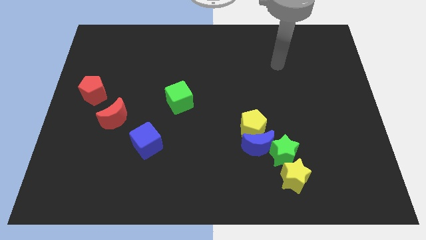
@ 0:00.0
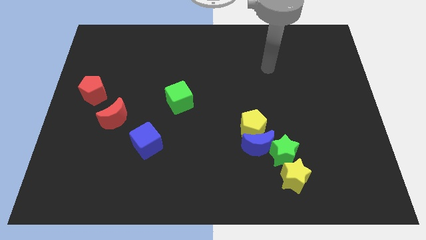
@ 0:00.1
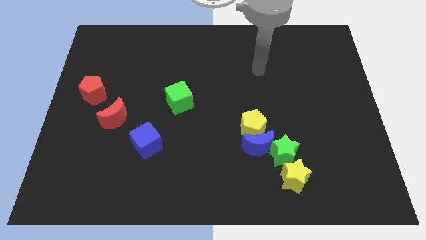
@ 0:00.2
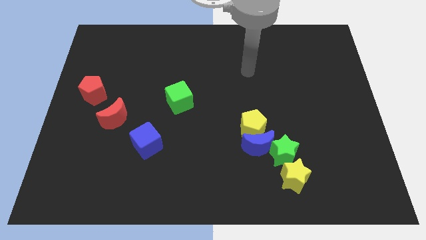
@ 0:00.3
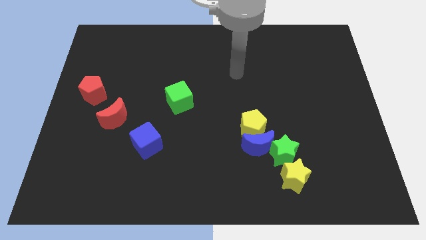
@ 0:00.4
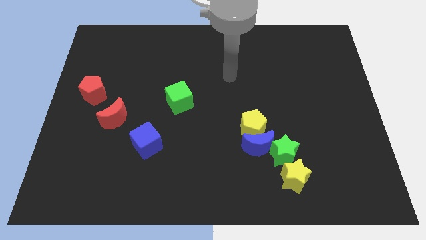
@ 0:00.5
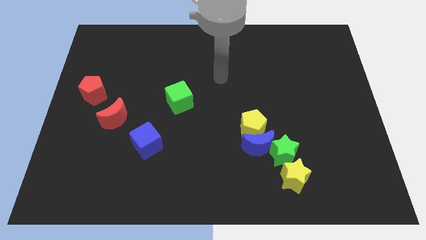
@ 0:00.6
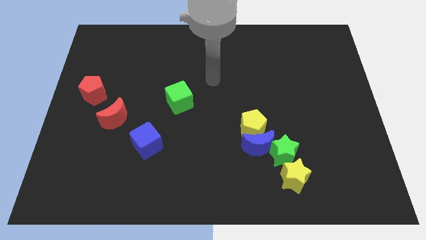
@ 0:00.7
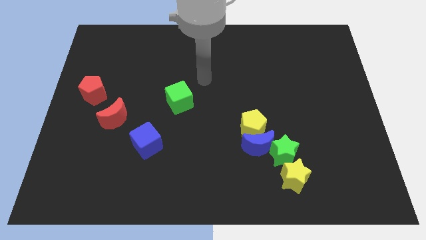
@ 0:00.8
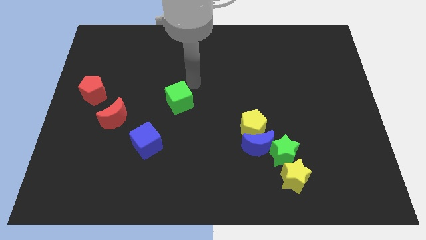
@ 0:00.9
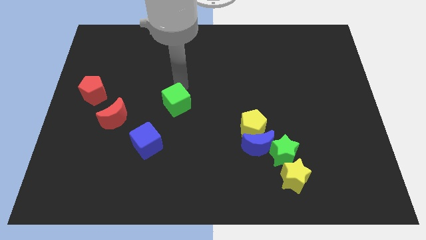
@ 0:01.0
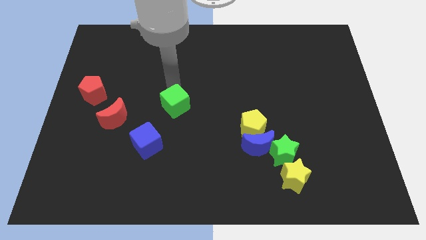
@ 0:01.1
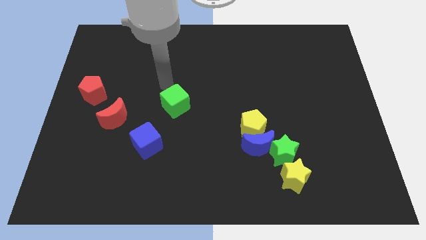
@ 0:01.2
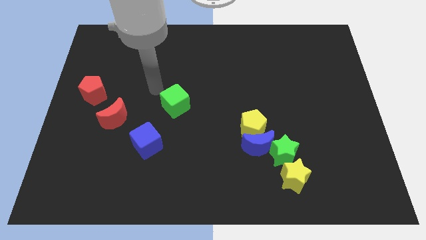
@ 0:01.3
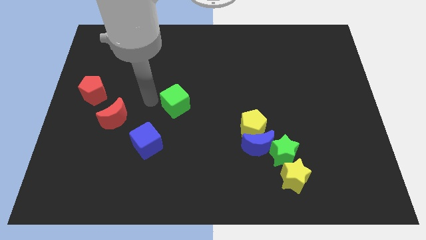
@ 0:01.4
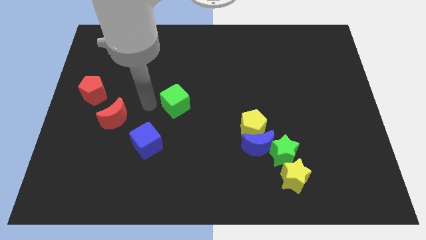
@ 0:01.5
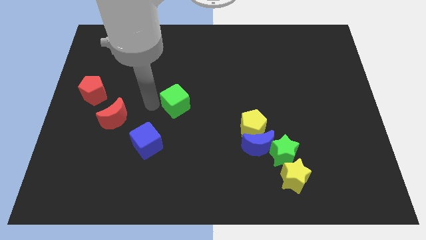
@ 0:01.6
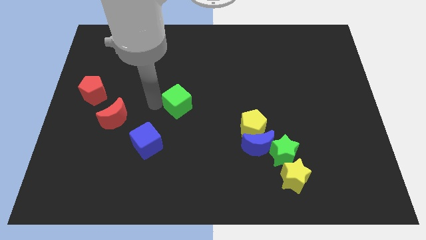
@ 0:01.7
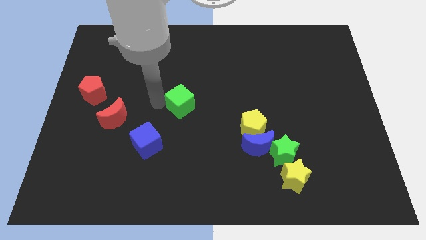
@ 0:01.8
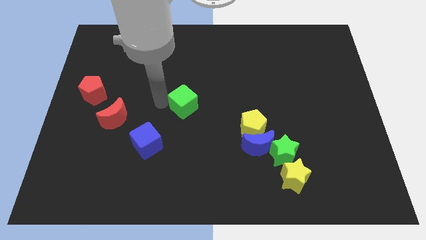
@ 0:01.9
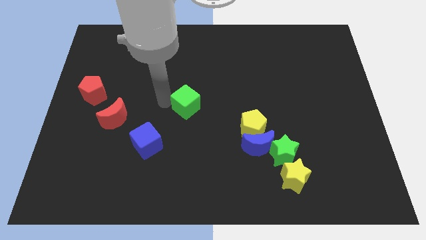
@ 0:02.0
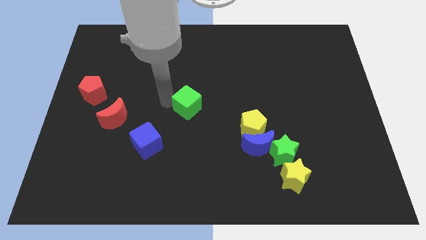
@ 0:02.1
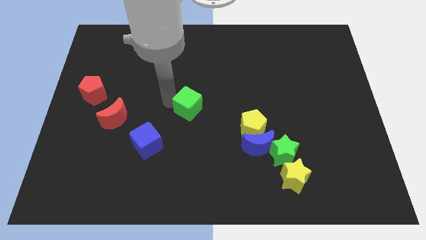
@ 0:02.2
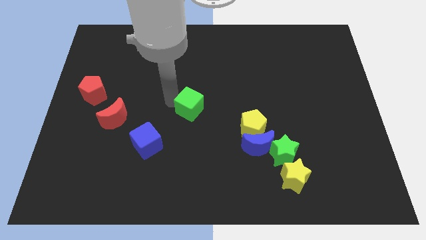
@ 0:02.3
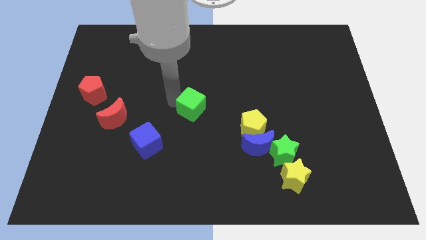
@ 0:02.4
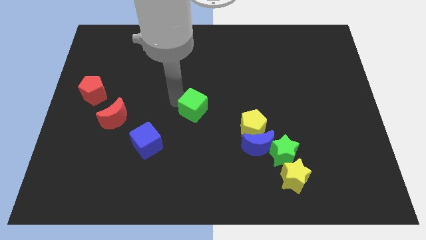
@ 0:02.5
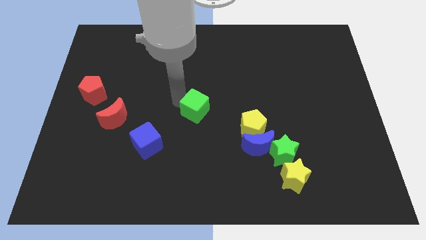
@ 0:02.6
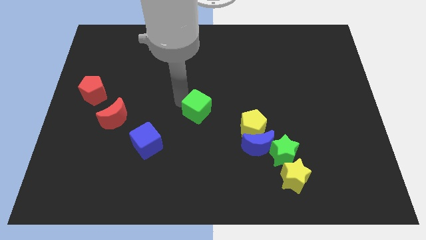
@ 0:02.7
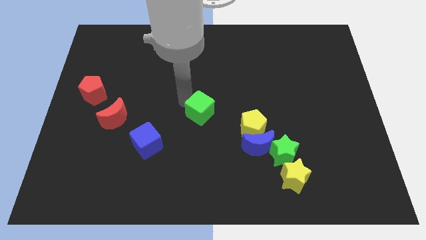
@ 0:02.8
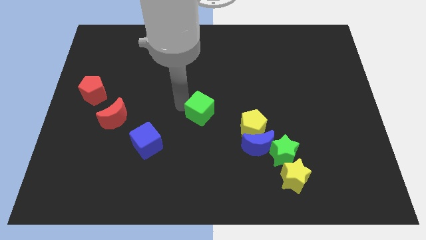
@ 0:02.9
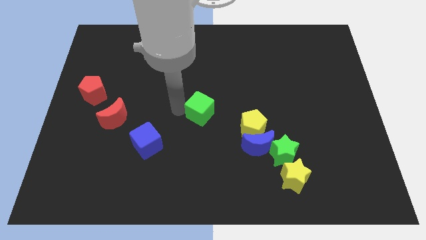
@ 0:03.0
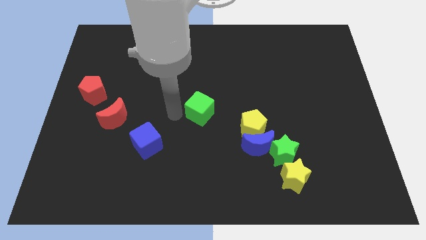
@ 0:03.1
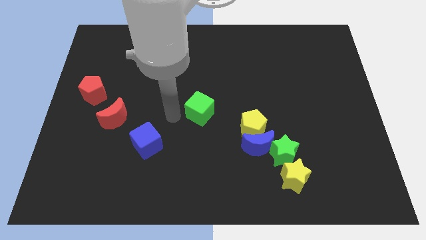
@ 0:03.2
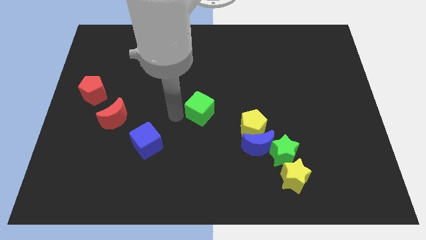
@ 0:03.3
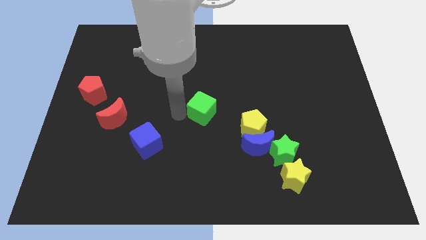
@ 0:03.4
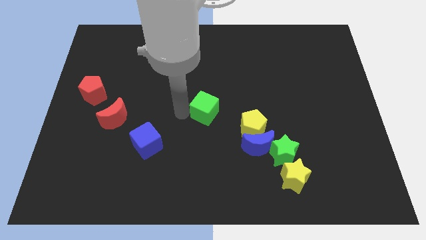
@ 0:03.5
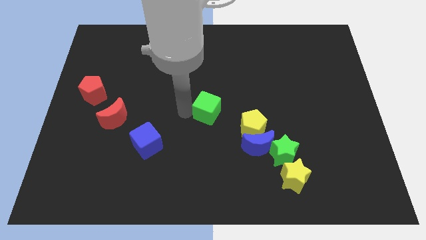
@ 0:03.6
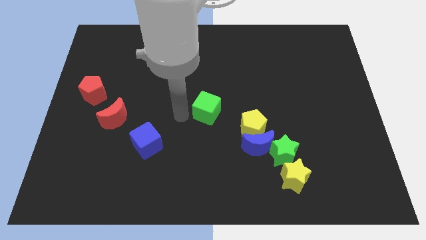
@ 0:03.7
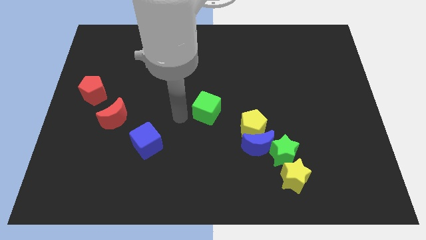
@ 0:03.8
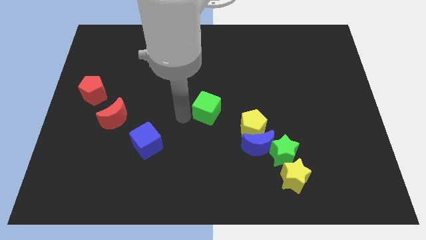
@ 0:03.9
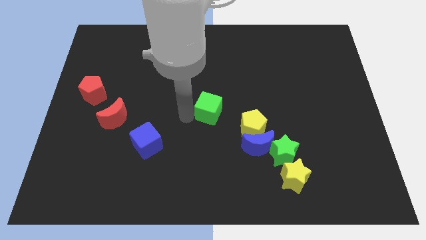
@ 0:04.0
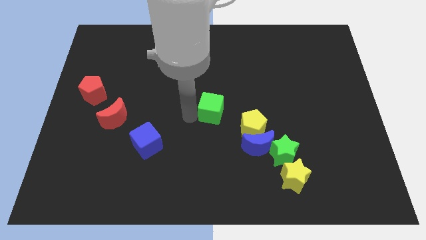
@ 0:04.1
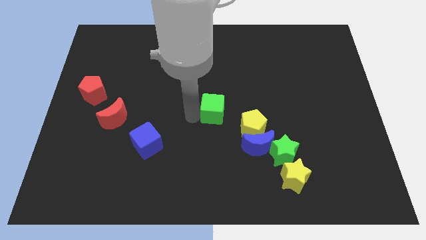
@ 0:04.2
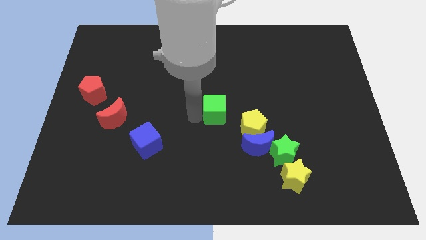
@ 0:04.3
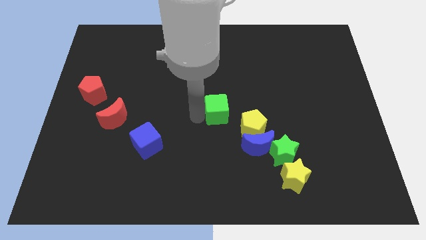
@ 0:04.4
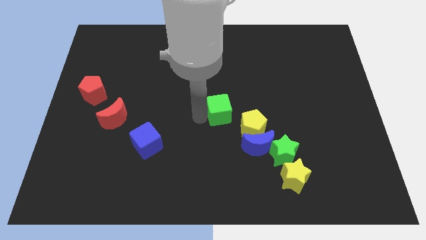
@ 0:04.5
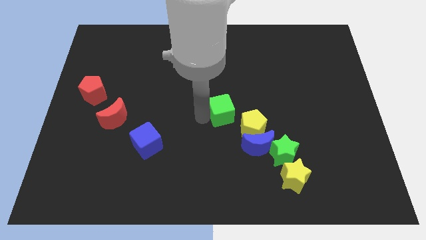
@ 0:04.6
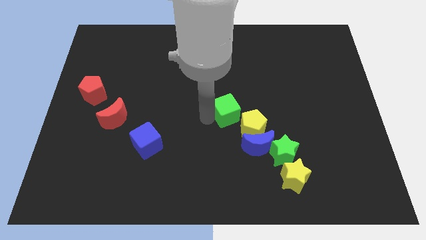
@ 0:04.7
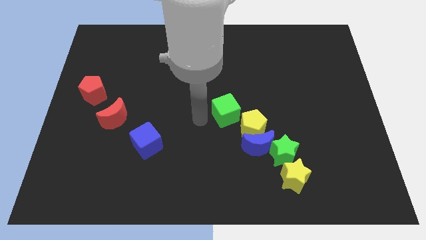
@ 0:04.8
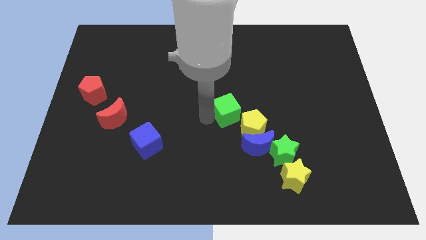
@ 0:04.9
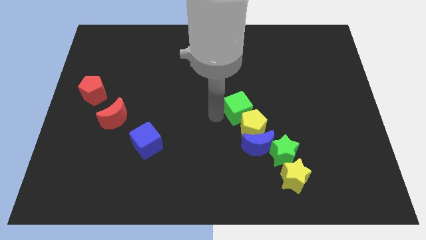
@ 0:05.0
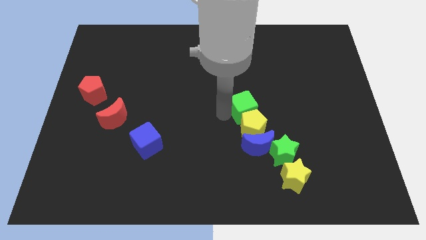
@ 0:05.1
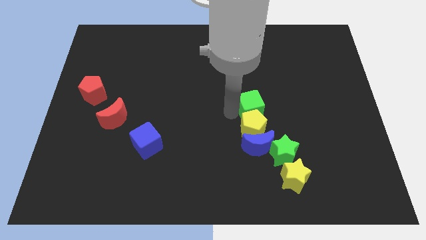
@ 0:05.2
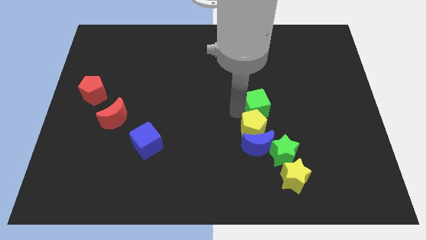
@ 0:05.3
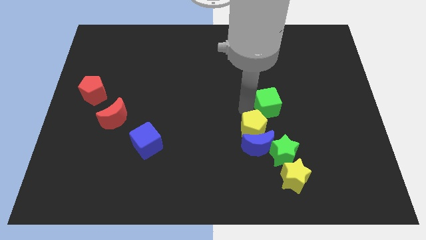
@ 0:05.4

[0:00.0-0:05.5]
push the green cube right

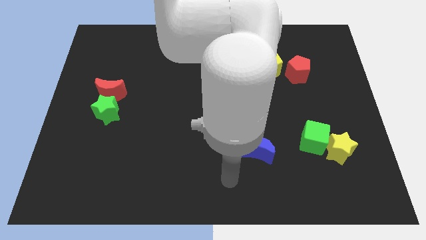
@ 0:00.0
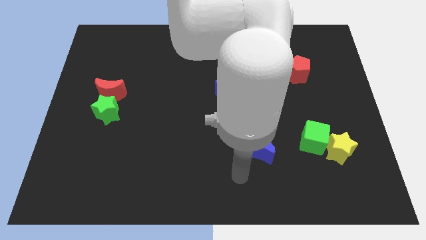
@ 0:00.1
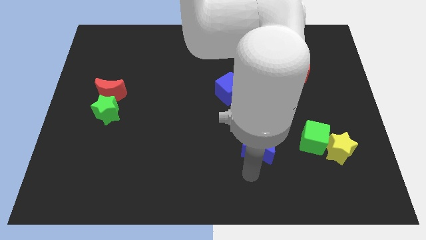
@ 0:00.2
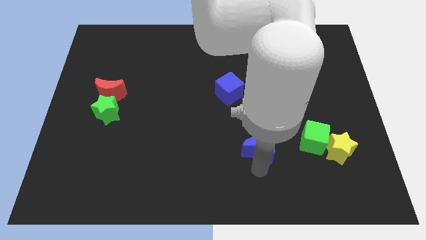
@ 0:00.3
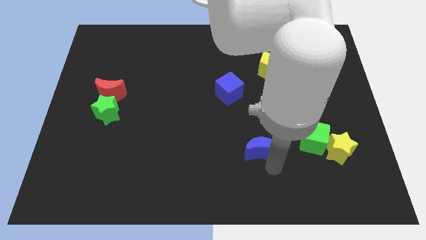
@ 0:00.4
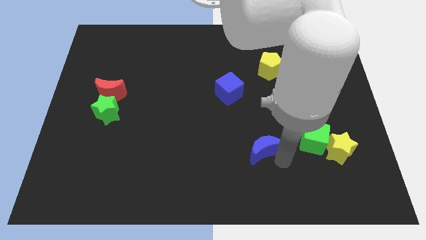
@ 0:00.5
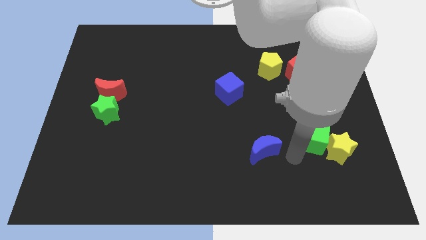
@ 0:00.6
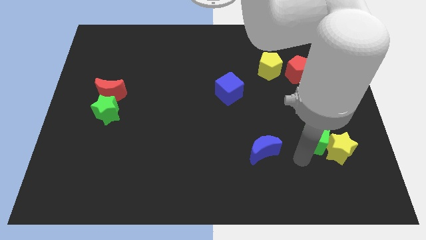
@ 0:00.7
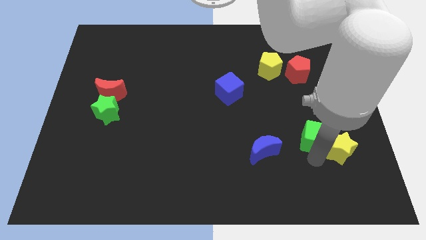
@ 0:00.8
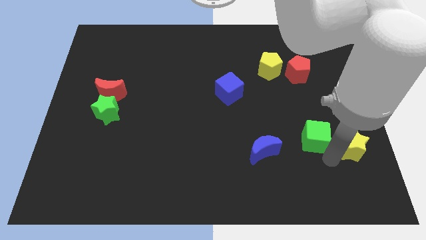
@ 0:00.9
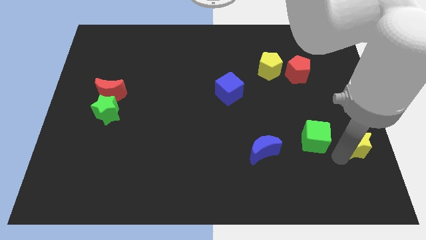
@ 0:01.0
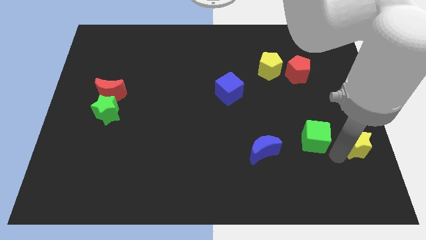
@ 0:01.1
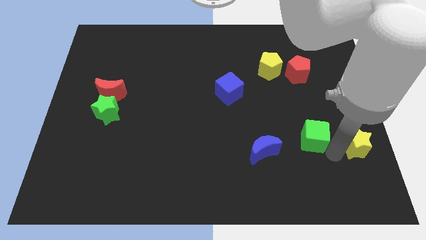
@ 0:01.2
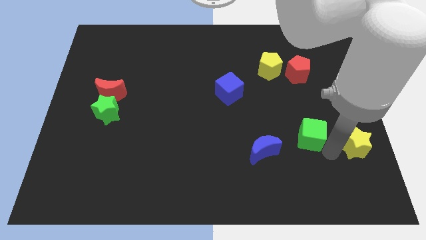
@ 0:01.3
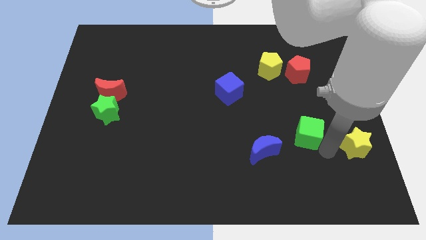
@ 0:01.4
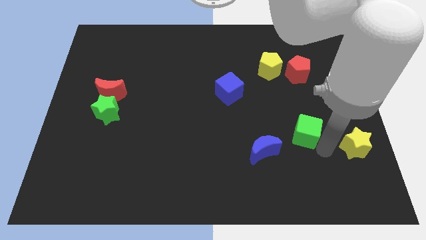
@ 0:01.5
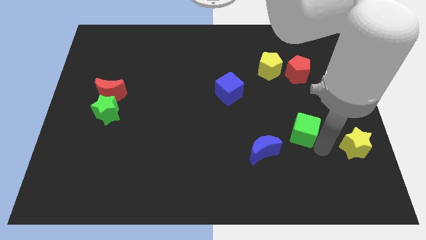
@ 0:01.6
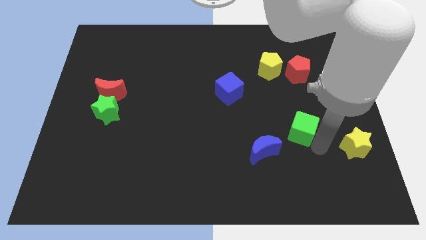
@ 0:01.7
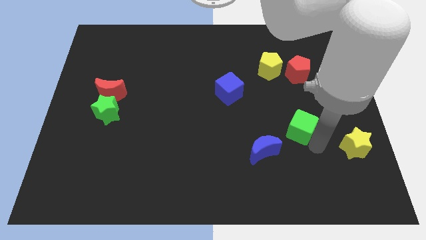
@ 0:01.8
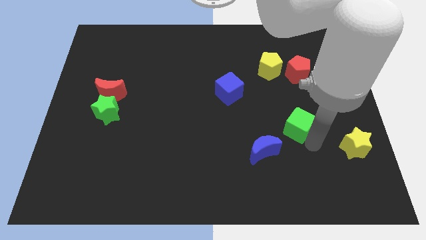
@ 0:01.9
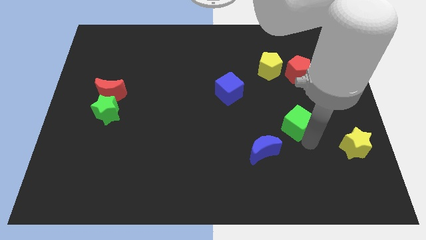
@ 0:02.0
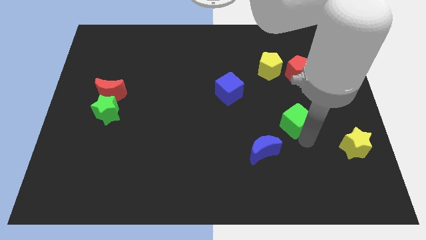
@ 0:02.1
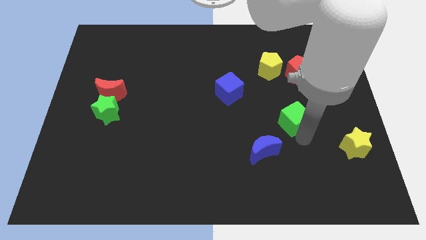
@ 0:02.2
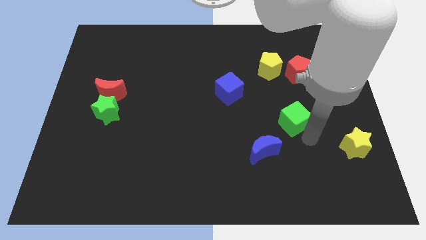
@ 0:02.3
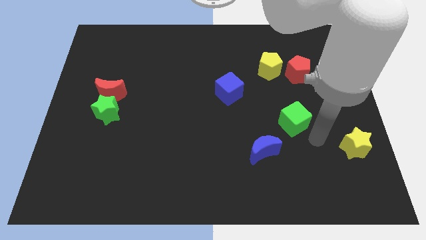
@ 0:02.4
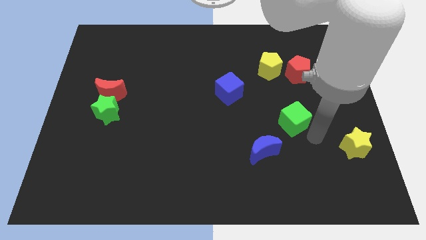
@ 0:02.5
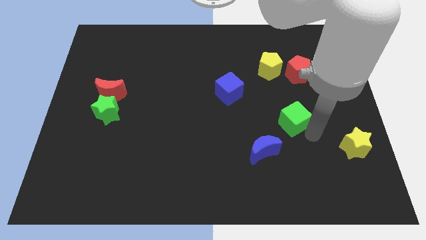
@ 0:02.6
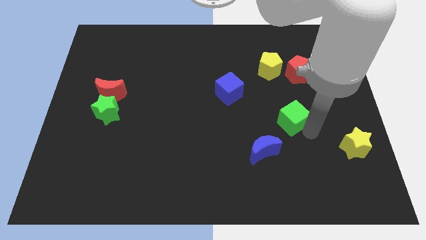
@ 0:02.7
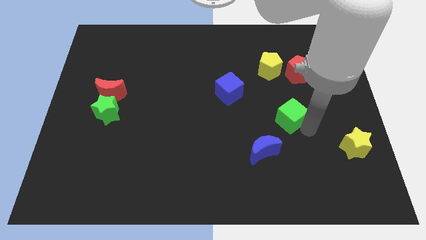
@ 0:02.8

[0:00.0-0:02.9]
push the green cube upwards and left diagonally somewhat
